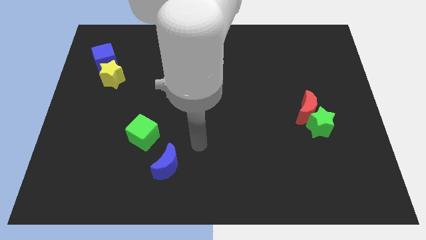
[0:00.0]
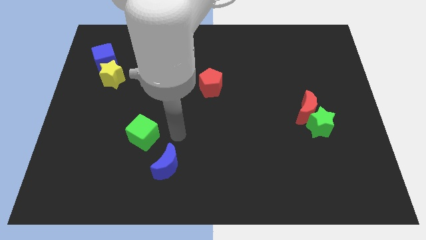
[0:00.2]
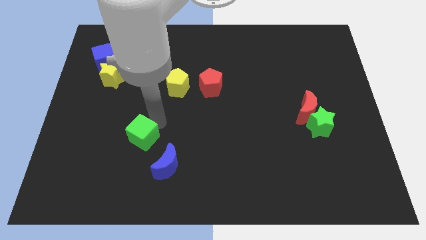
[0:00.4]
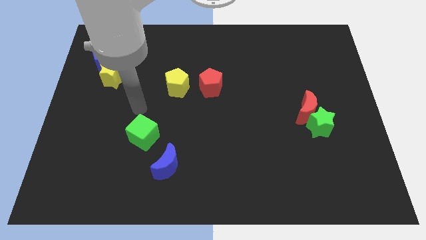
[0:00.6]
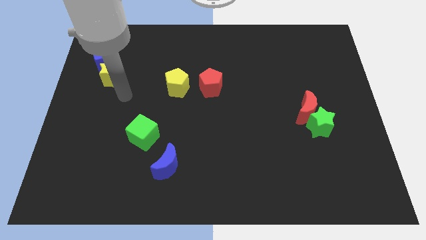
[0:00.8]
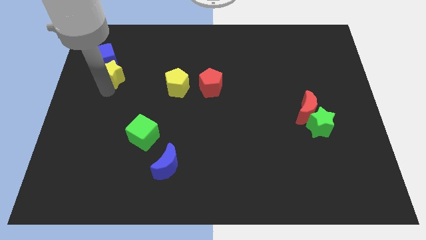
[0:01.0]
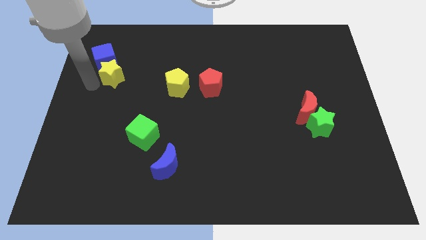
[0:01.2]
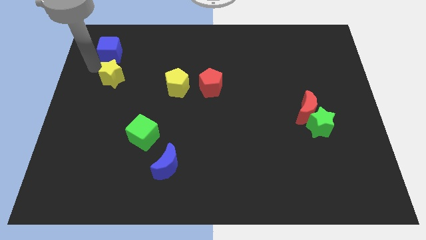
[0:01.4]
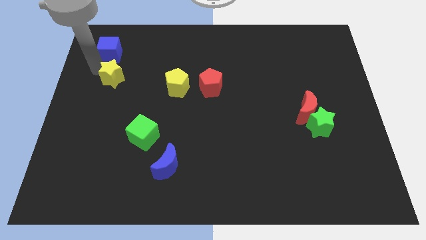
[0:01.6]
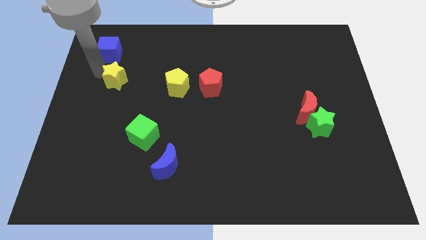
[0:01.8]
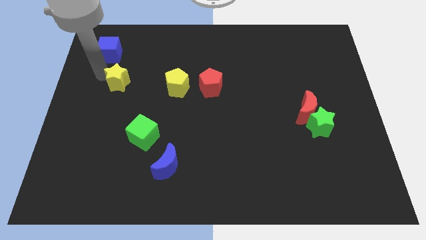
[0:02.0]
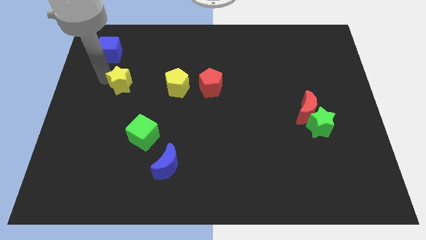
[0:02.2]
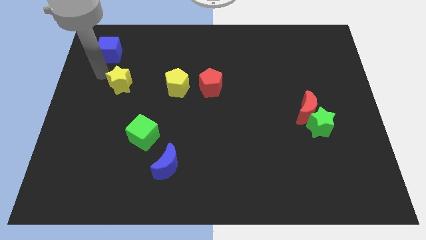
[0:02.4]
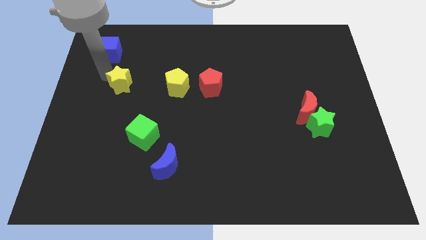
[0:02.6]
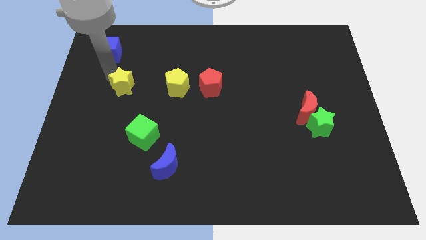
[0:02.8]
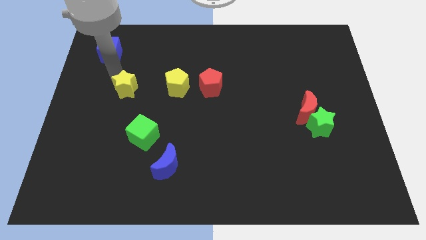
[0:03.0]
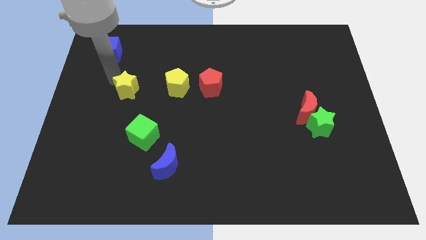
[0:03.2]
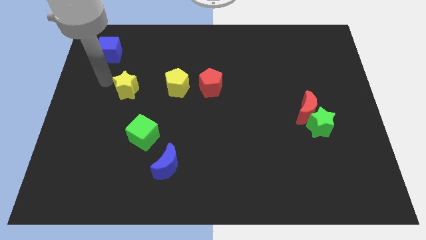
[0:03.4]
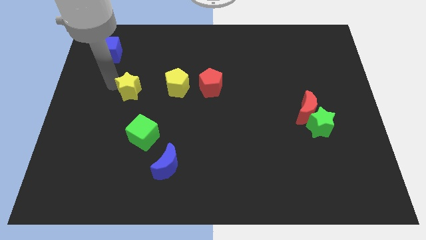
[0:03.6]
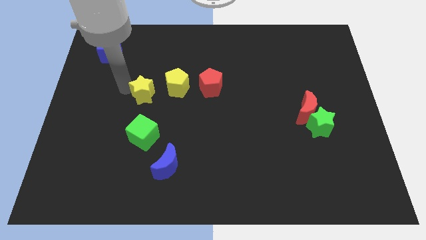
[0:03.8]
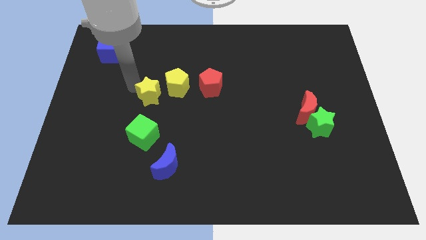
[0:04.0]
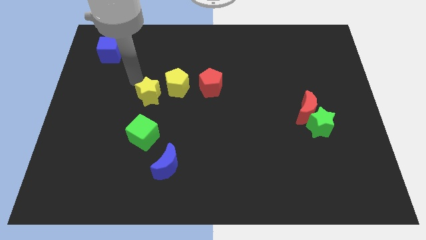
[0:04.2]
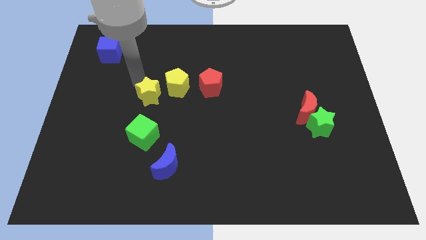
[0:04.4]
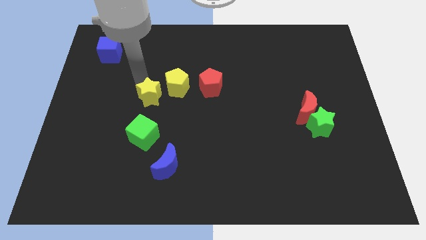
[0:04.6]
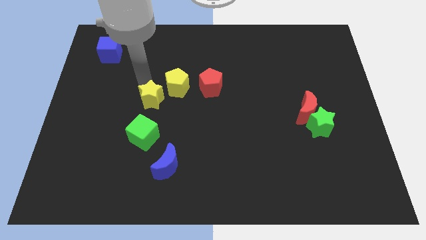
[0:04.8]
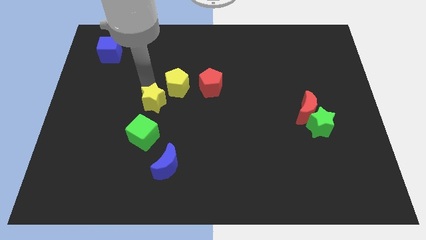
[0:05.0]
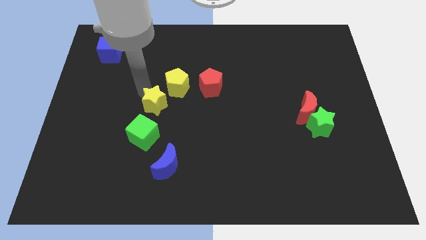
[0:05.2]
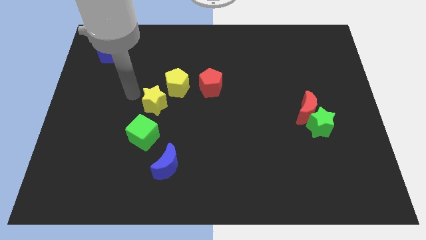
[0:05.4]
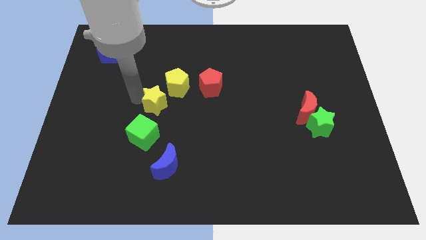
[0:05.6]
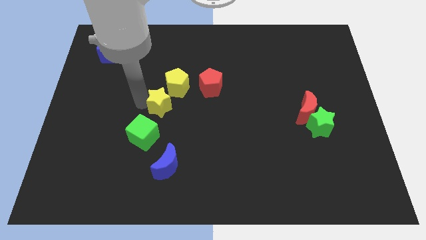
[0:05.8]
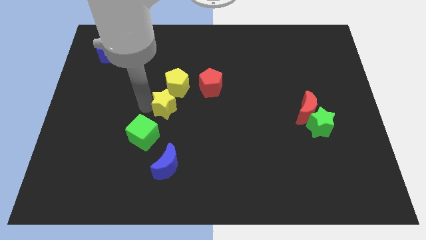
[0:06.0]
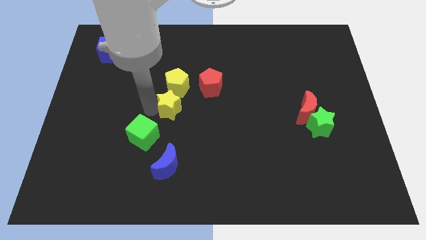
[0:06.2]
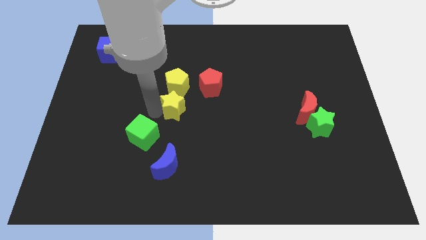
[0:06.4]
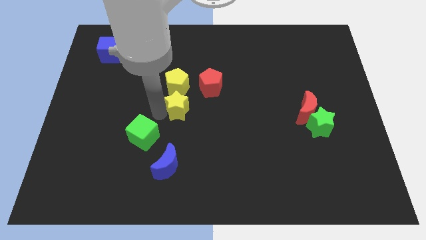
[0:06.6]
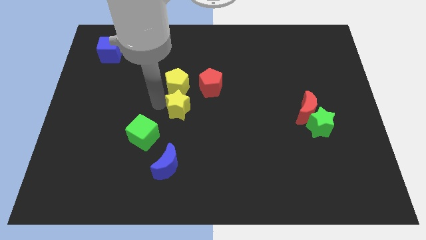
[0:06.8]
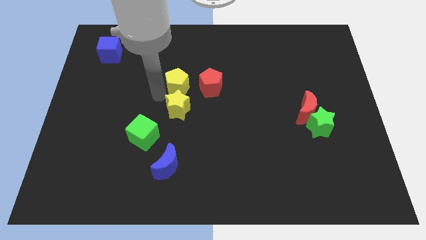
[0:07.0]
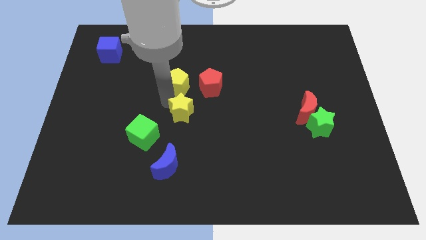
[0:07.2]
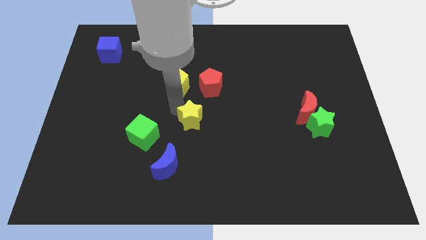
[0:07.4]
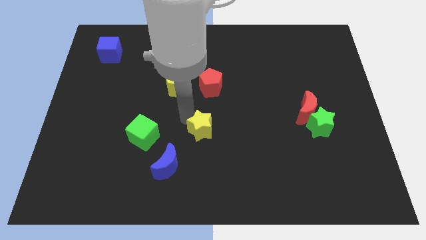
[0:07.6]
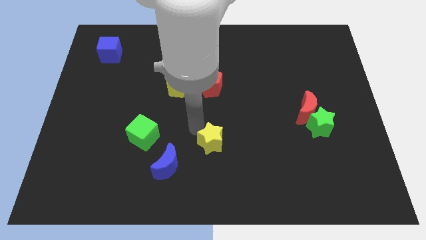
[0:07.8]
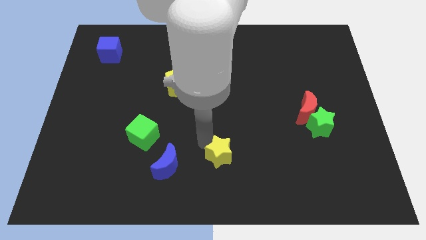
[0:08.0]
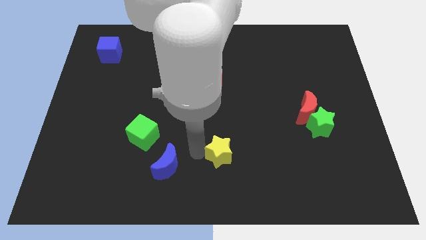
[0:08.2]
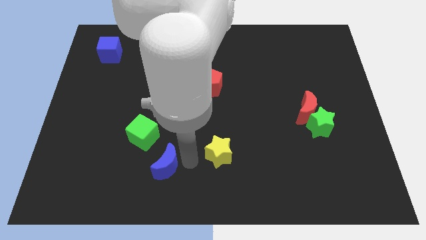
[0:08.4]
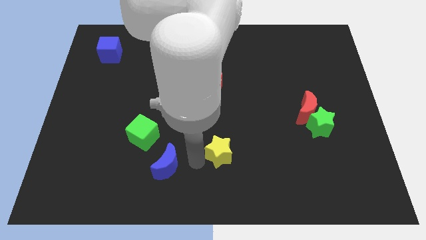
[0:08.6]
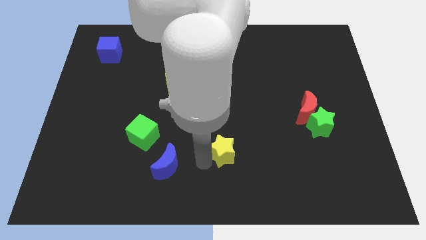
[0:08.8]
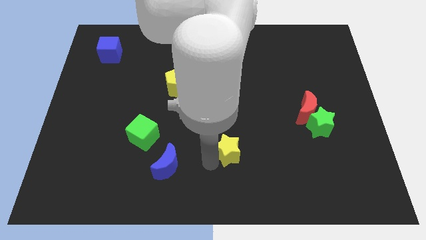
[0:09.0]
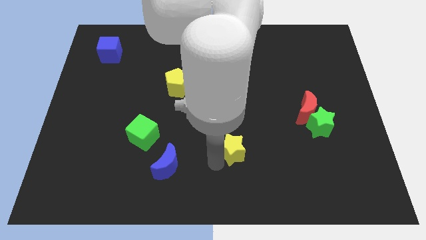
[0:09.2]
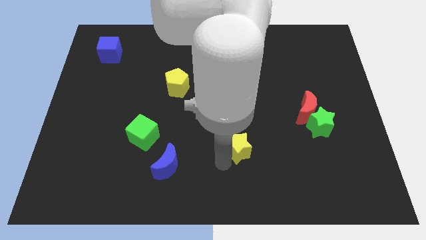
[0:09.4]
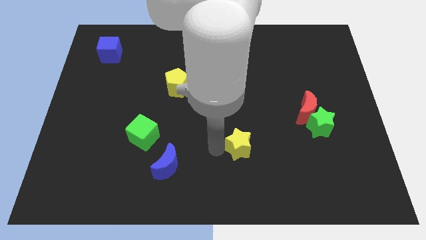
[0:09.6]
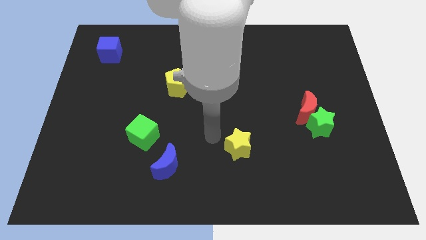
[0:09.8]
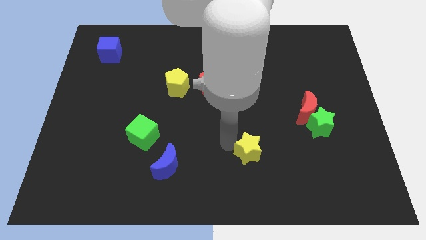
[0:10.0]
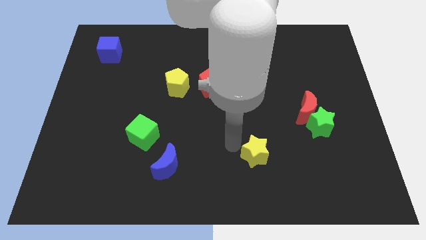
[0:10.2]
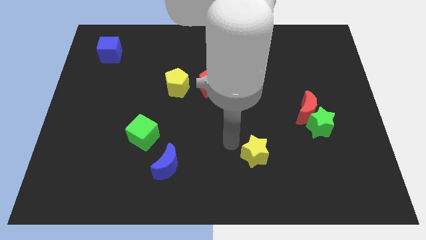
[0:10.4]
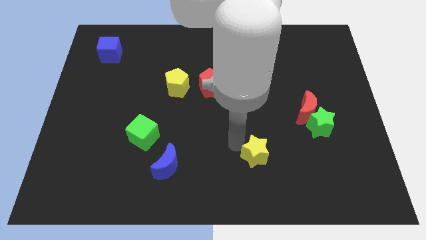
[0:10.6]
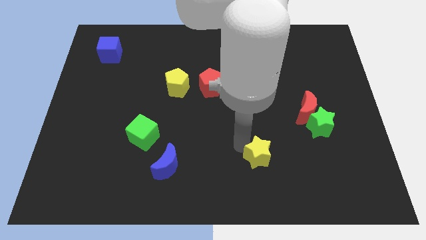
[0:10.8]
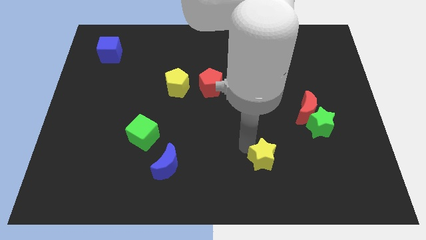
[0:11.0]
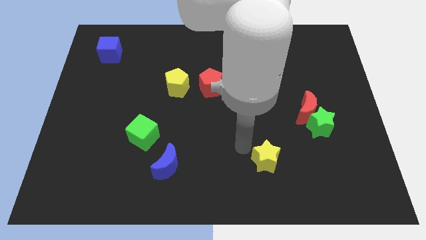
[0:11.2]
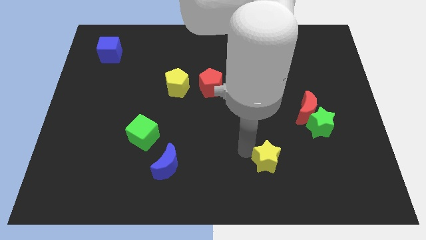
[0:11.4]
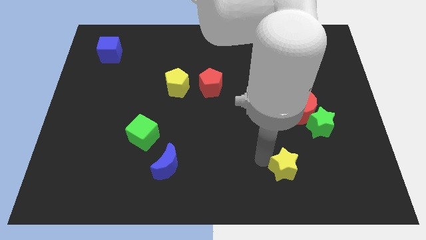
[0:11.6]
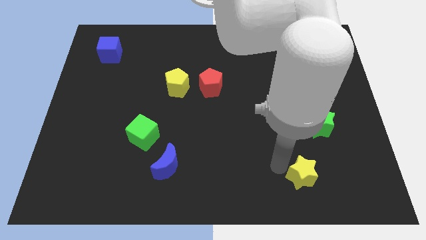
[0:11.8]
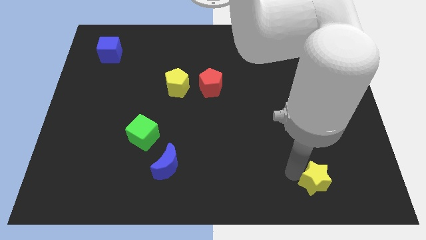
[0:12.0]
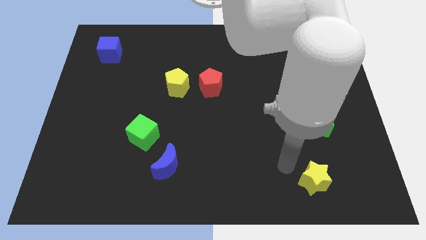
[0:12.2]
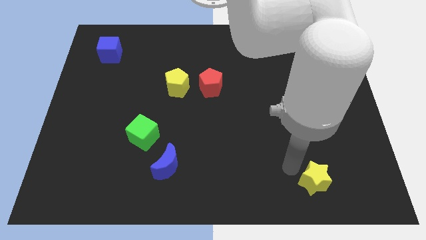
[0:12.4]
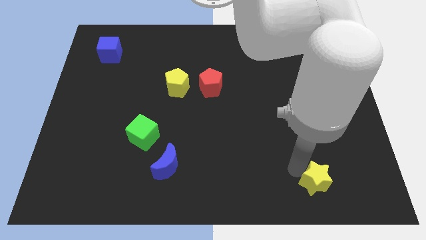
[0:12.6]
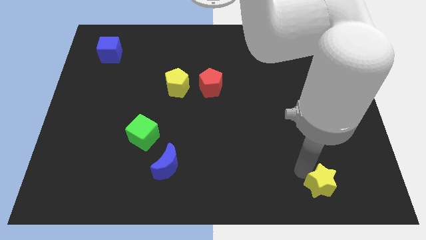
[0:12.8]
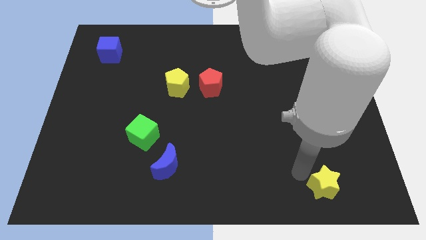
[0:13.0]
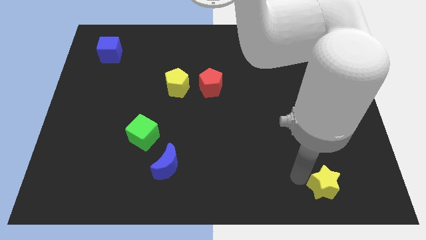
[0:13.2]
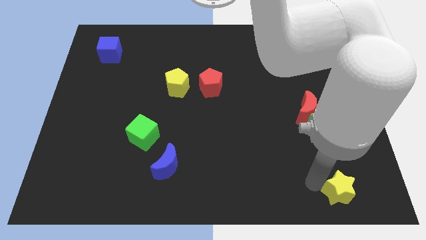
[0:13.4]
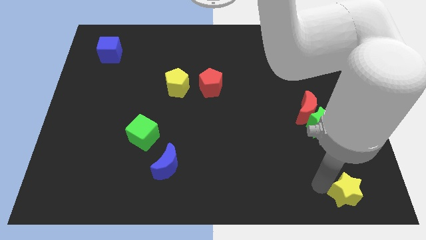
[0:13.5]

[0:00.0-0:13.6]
slide the yellow star to the bottom right
